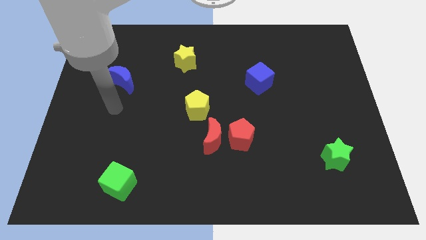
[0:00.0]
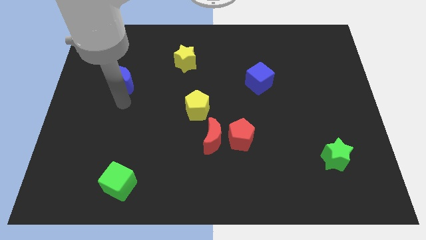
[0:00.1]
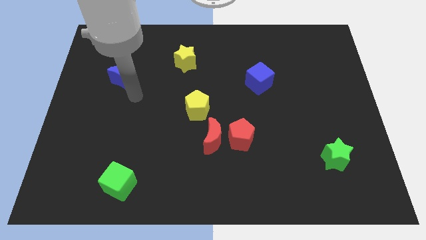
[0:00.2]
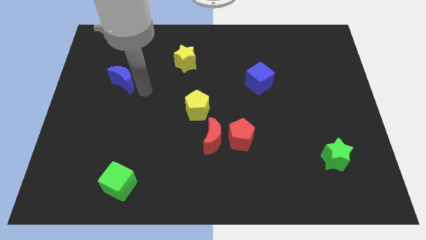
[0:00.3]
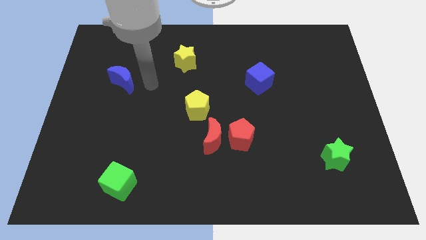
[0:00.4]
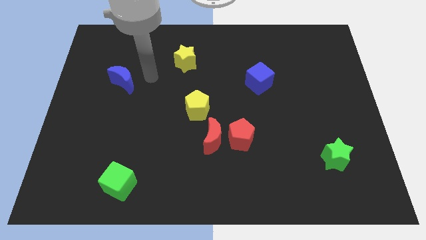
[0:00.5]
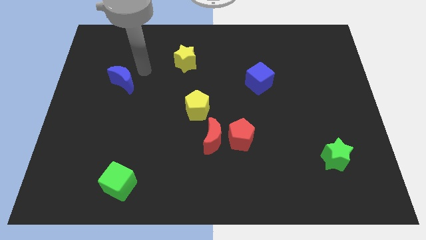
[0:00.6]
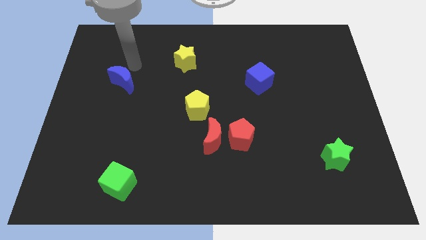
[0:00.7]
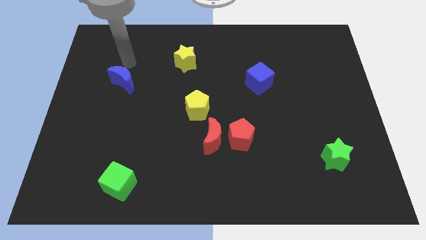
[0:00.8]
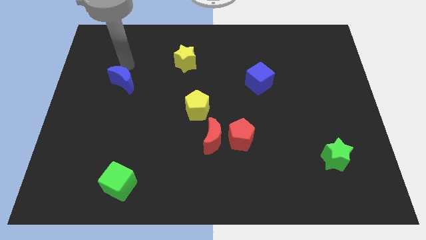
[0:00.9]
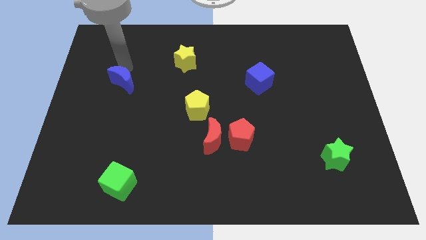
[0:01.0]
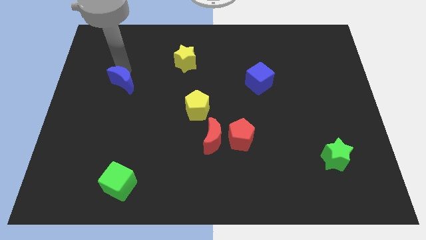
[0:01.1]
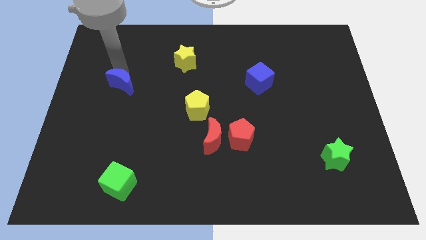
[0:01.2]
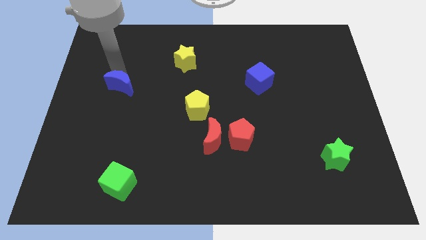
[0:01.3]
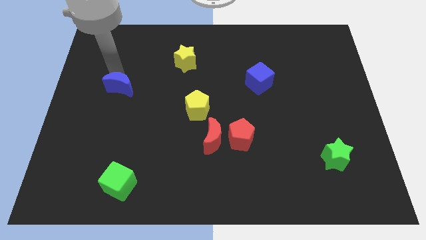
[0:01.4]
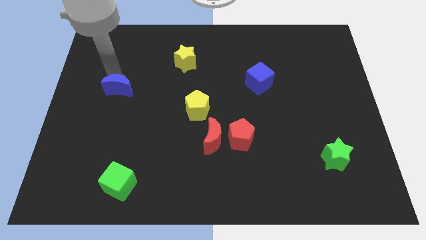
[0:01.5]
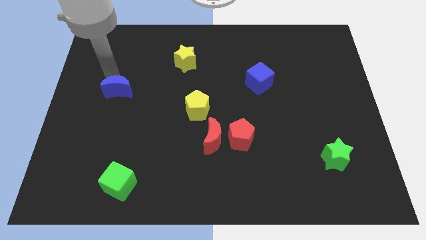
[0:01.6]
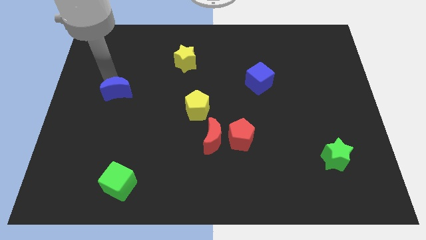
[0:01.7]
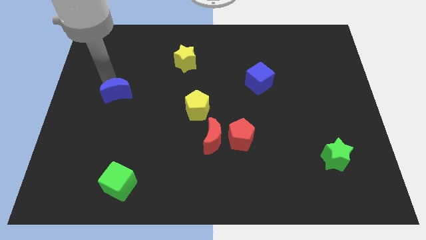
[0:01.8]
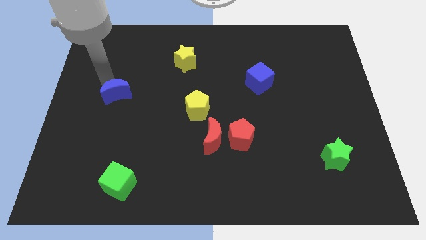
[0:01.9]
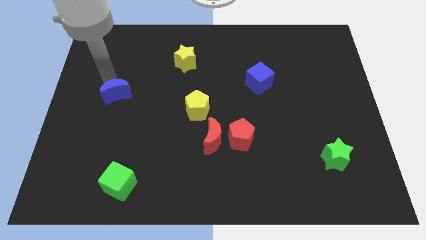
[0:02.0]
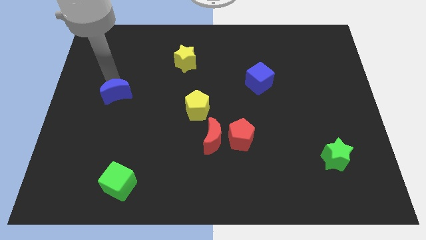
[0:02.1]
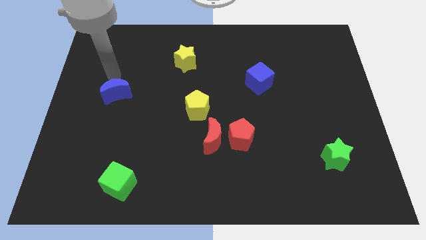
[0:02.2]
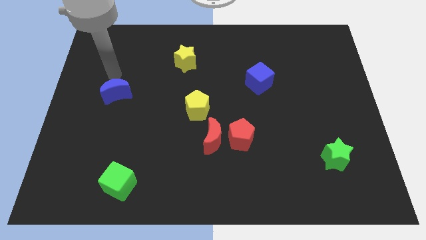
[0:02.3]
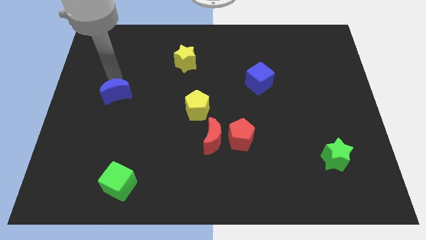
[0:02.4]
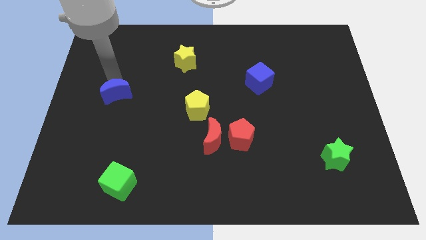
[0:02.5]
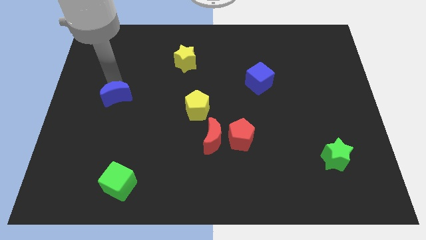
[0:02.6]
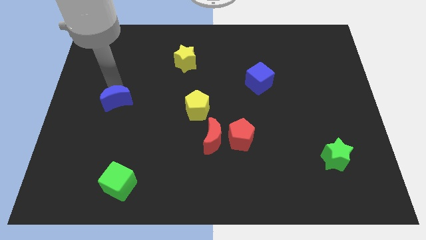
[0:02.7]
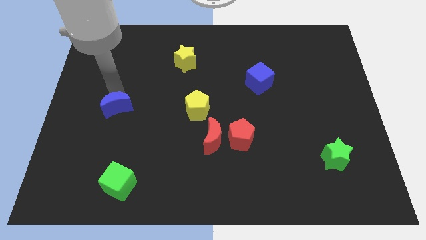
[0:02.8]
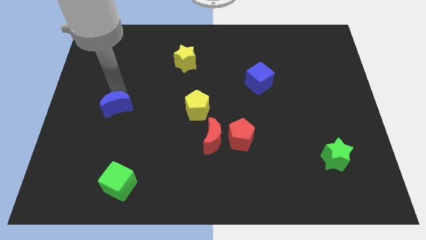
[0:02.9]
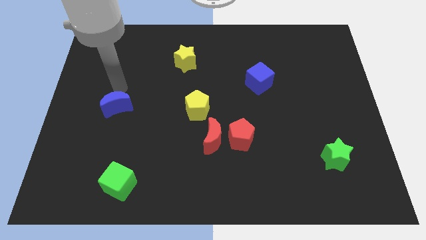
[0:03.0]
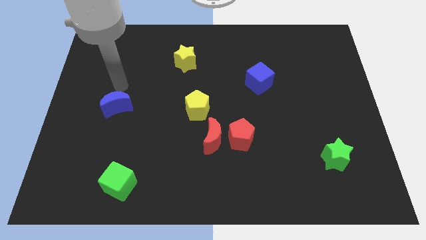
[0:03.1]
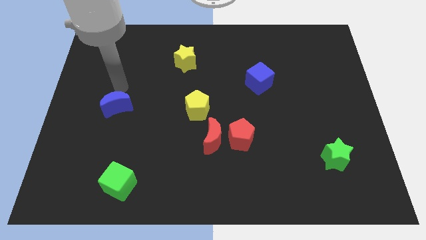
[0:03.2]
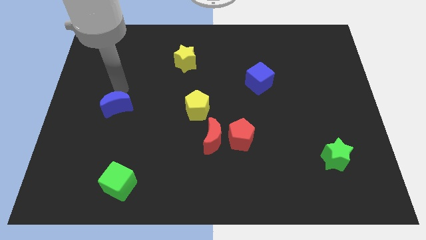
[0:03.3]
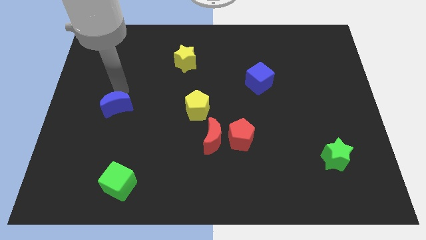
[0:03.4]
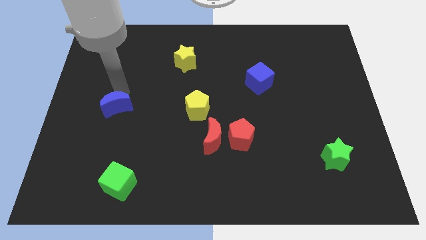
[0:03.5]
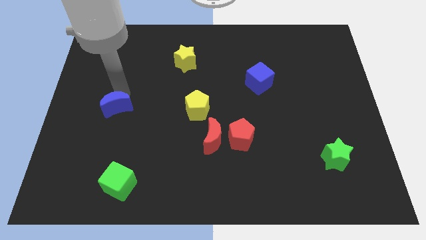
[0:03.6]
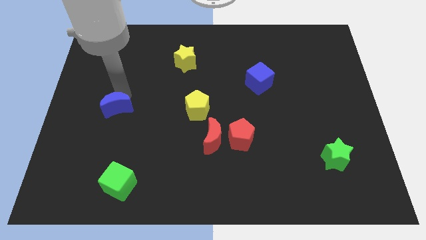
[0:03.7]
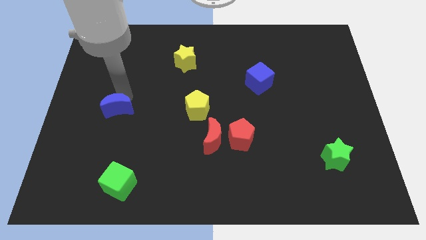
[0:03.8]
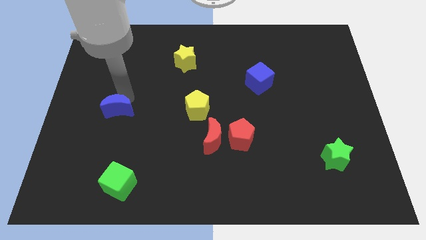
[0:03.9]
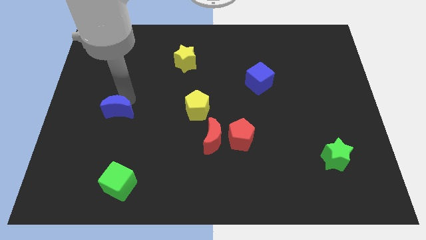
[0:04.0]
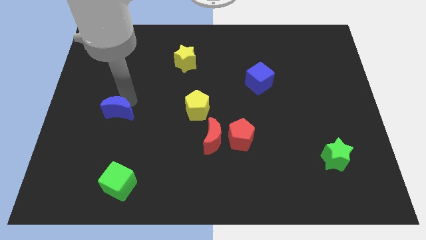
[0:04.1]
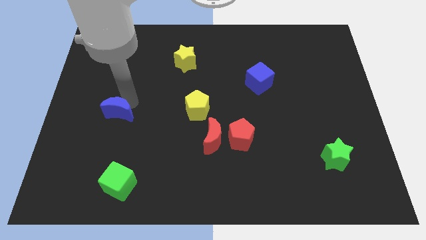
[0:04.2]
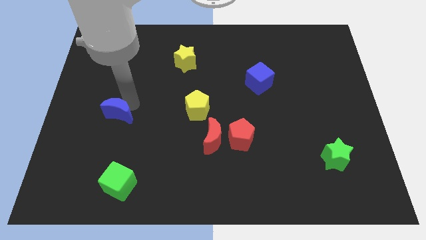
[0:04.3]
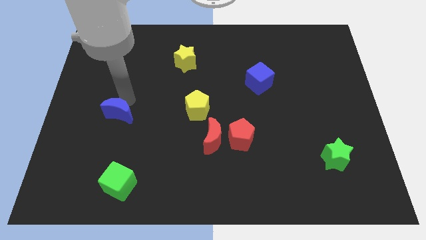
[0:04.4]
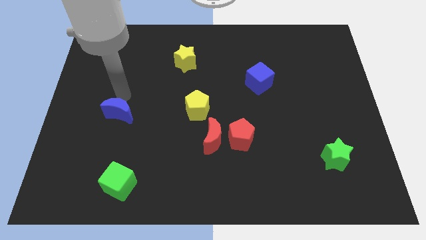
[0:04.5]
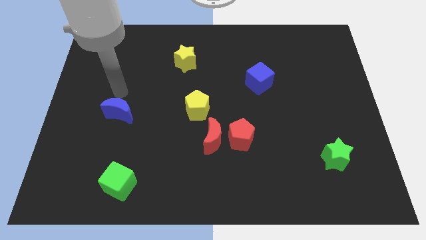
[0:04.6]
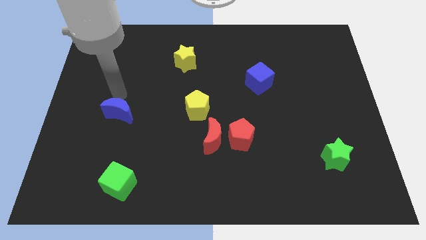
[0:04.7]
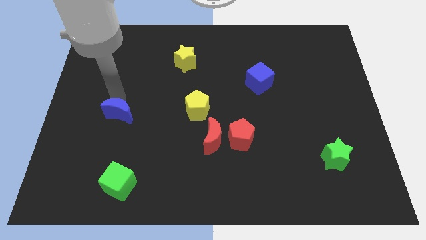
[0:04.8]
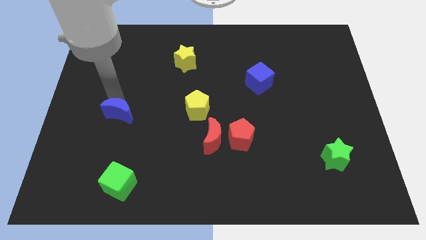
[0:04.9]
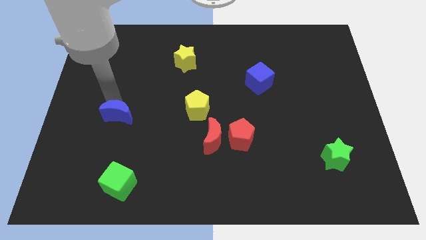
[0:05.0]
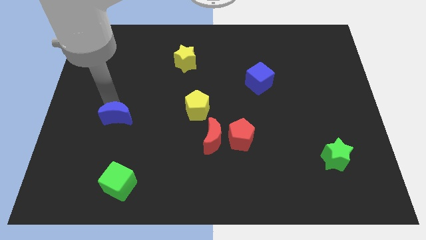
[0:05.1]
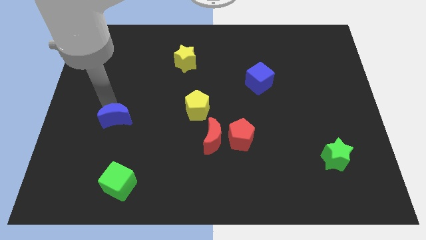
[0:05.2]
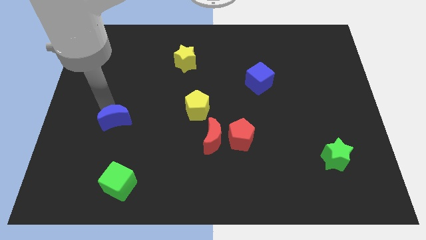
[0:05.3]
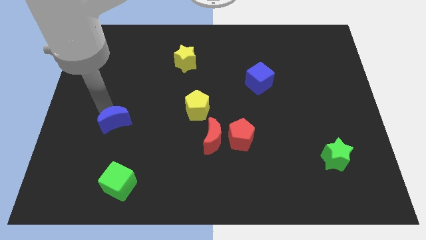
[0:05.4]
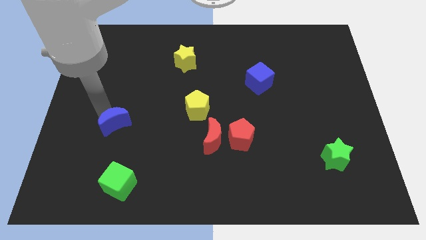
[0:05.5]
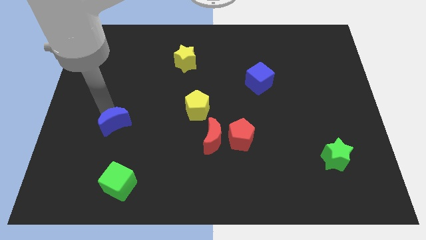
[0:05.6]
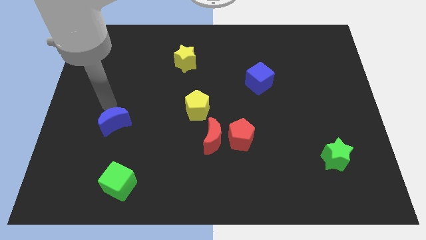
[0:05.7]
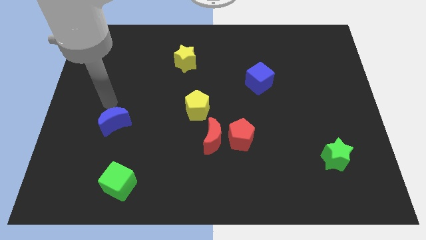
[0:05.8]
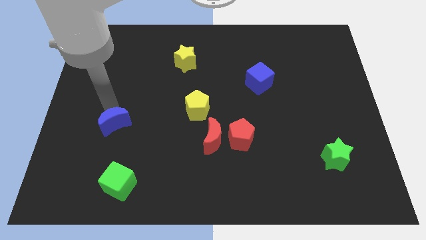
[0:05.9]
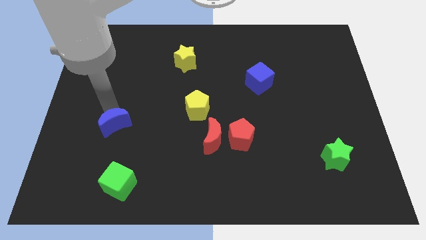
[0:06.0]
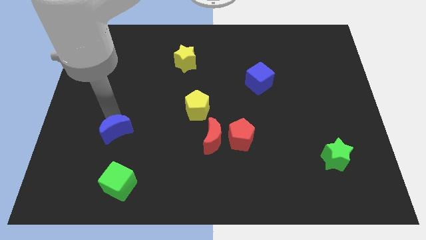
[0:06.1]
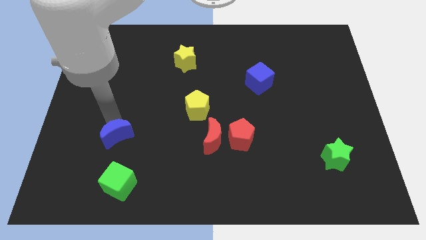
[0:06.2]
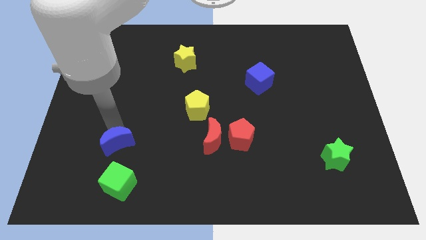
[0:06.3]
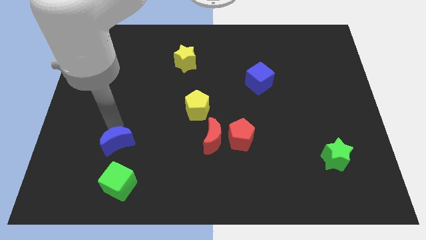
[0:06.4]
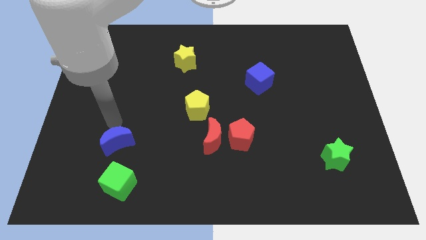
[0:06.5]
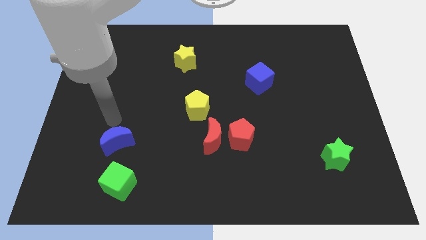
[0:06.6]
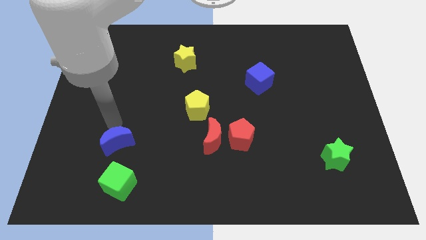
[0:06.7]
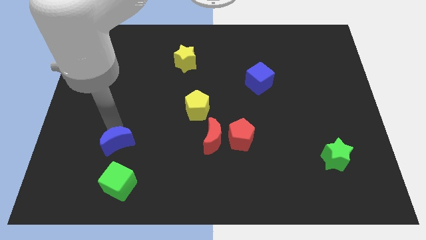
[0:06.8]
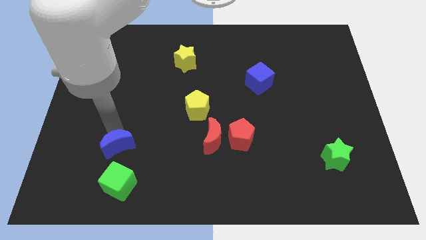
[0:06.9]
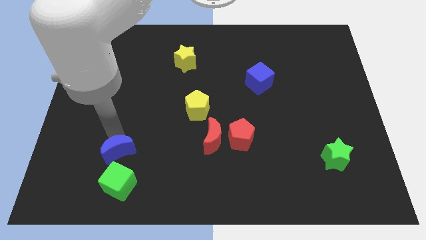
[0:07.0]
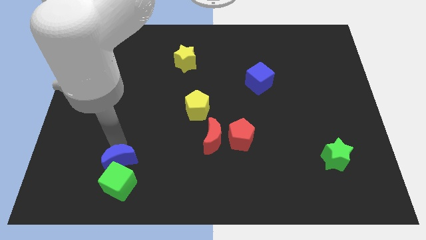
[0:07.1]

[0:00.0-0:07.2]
push the blue moon to the green cube
